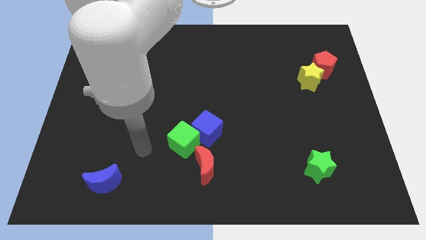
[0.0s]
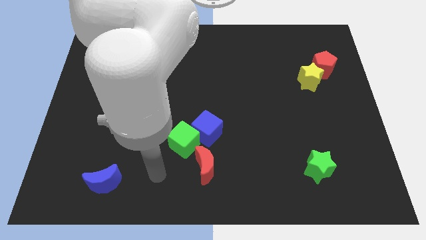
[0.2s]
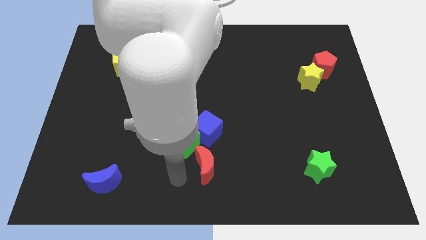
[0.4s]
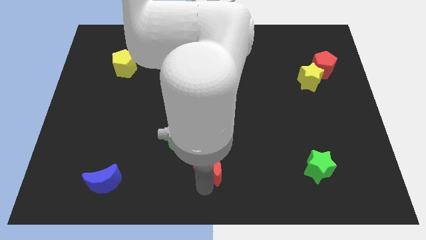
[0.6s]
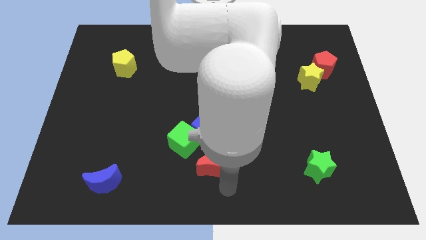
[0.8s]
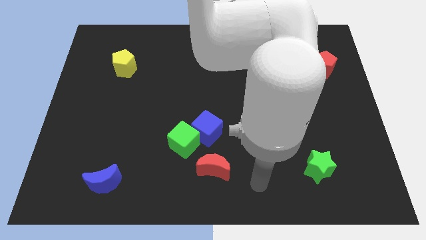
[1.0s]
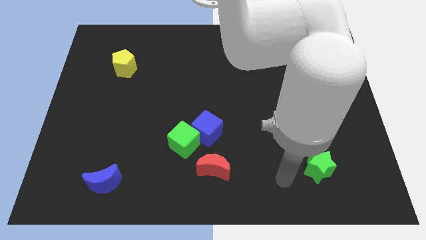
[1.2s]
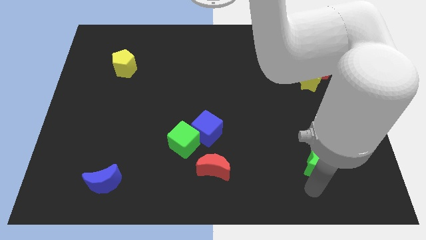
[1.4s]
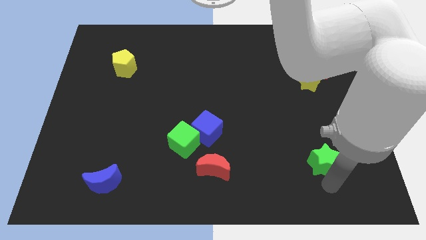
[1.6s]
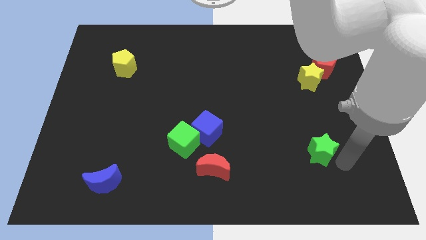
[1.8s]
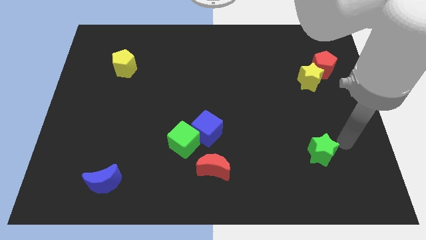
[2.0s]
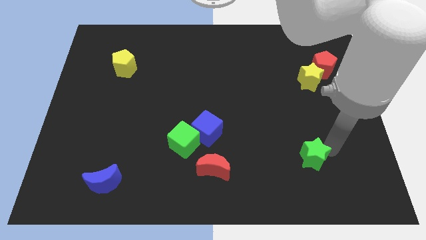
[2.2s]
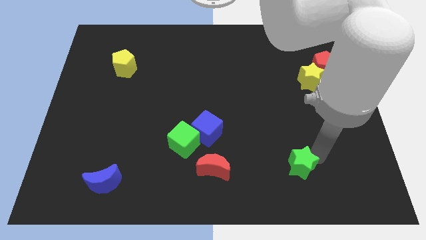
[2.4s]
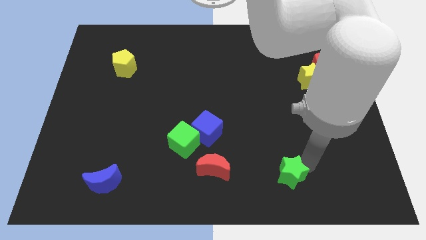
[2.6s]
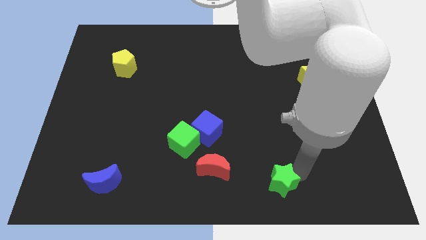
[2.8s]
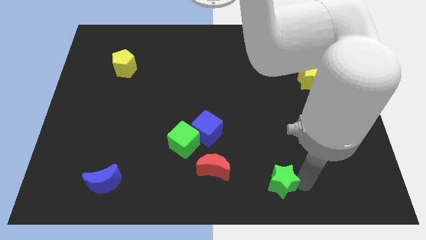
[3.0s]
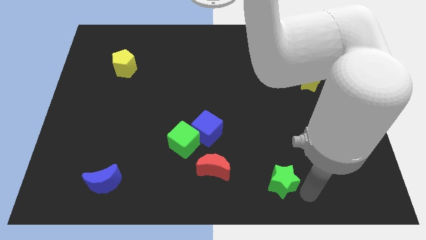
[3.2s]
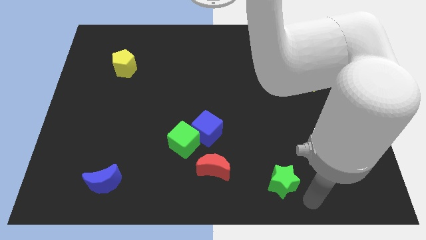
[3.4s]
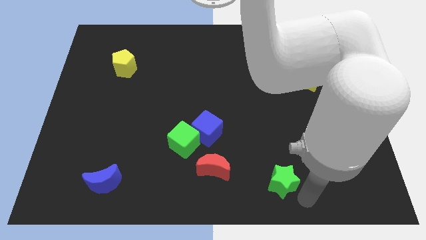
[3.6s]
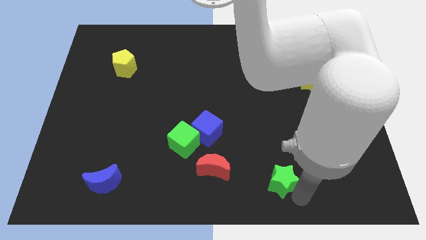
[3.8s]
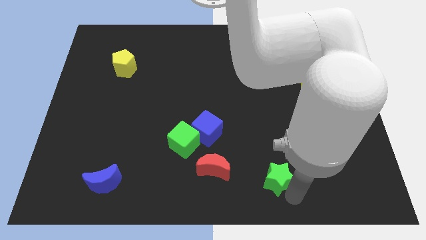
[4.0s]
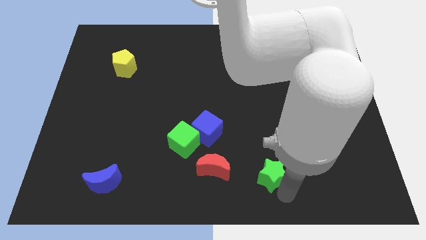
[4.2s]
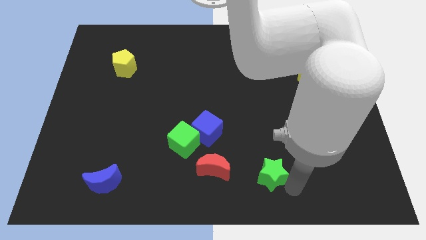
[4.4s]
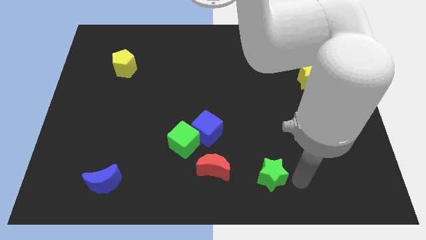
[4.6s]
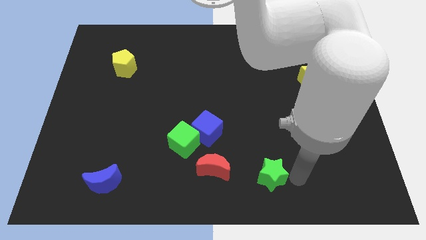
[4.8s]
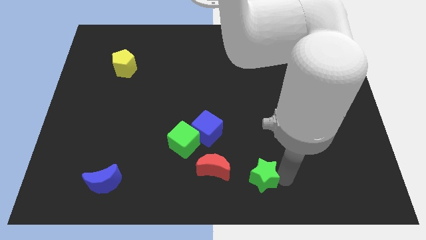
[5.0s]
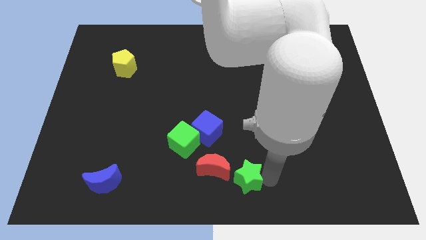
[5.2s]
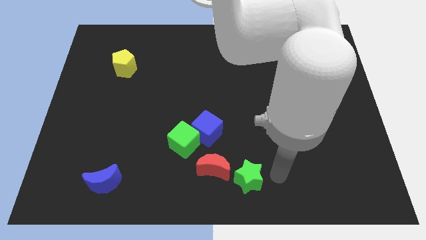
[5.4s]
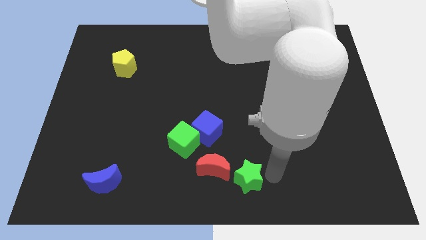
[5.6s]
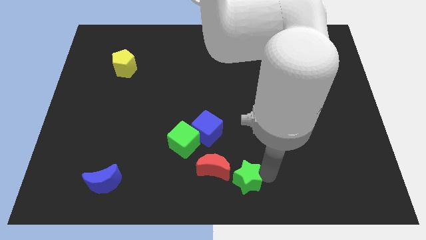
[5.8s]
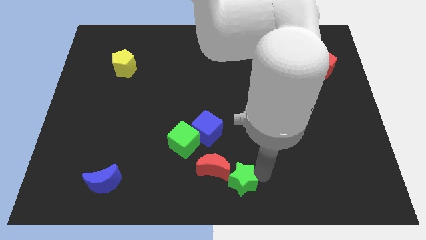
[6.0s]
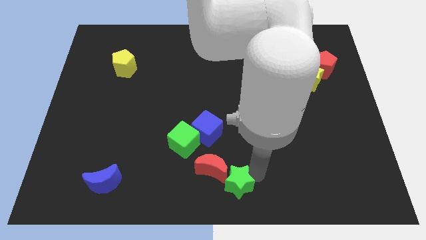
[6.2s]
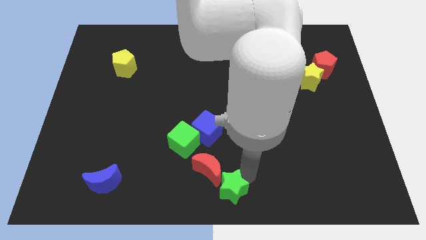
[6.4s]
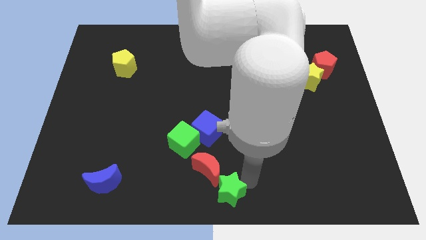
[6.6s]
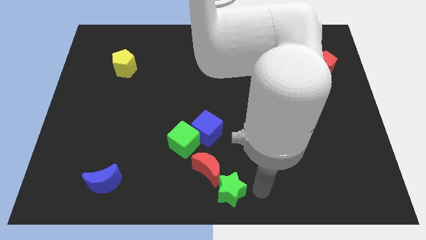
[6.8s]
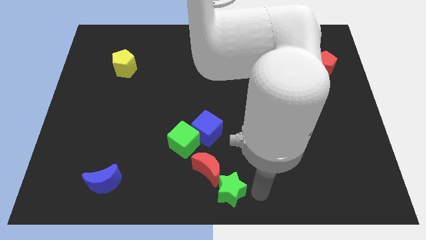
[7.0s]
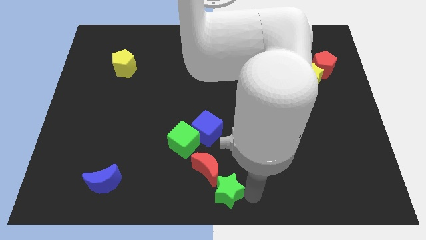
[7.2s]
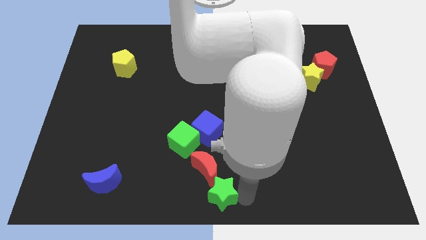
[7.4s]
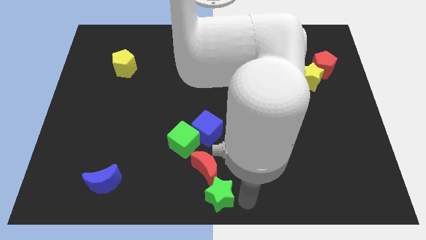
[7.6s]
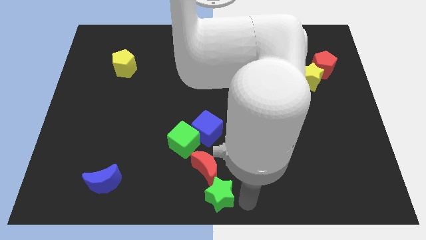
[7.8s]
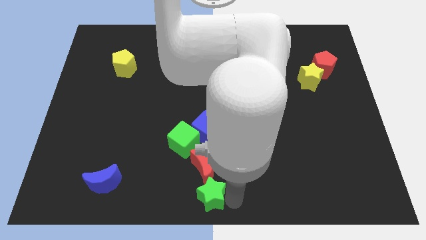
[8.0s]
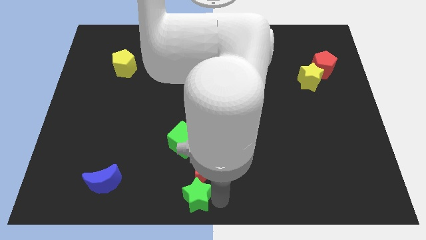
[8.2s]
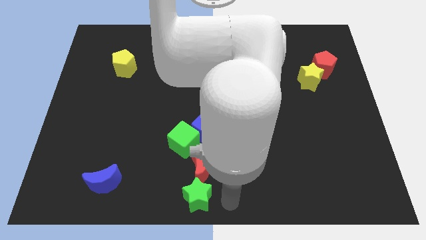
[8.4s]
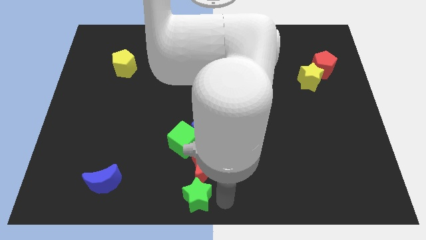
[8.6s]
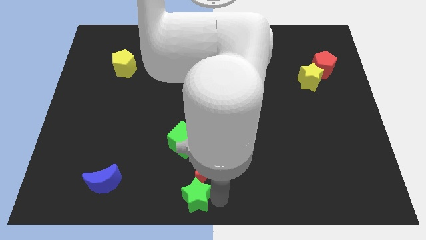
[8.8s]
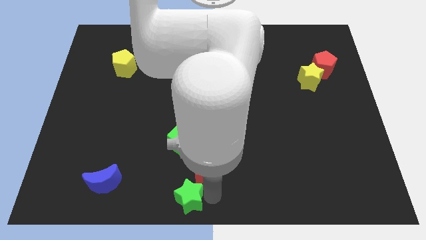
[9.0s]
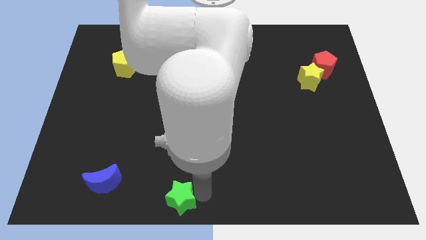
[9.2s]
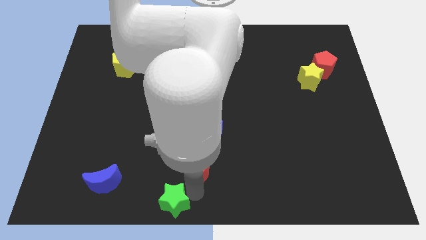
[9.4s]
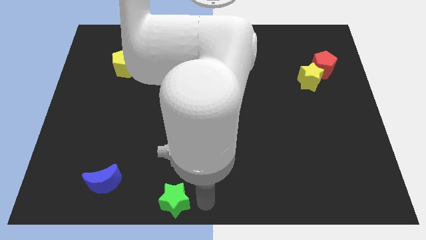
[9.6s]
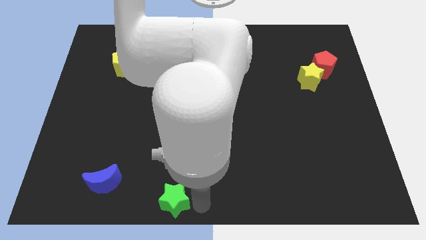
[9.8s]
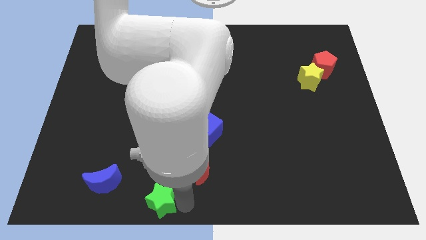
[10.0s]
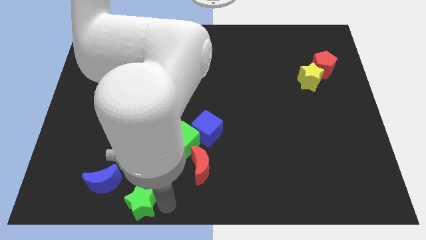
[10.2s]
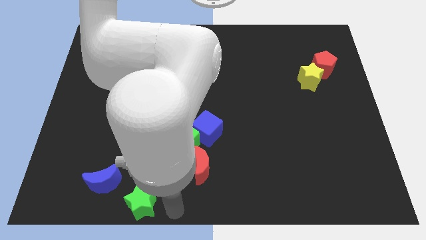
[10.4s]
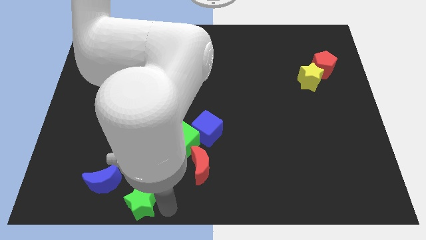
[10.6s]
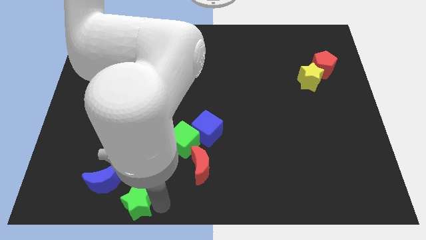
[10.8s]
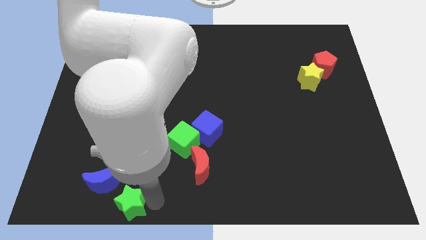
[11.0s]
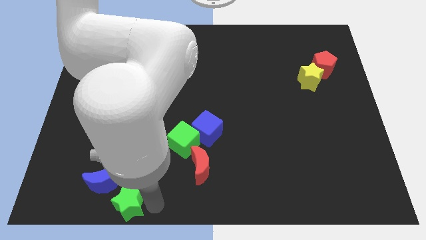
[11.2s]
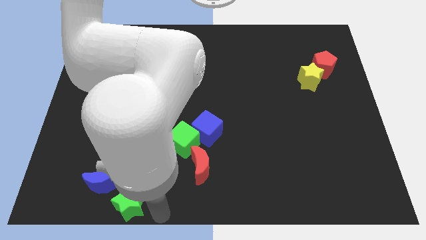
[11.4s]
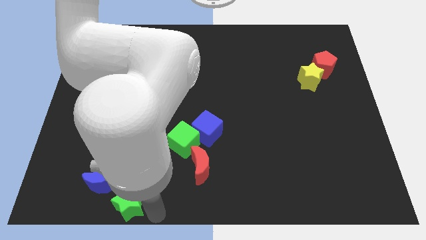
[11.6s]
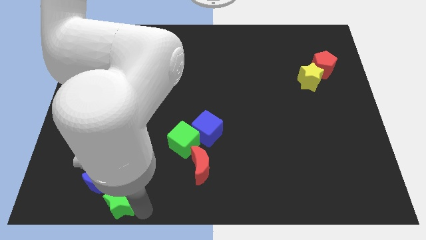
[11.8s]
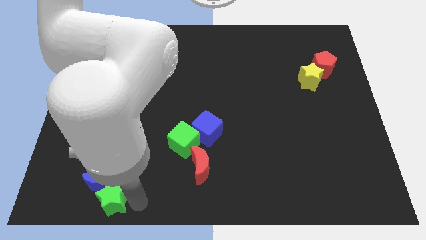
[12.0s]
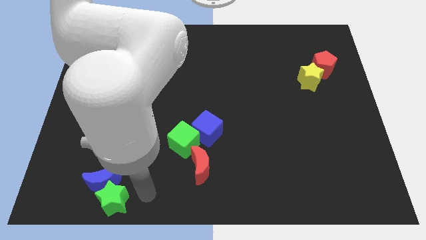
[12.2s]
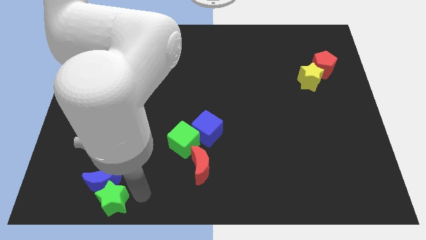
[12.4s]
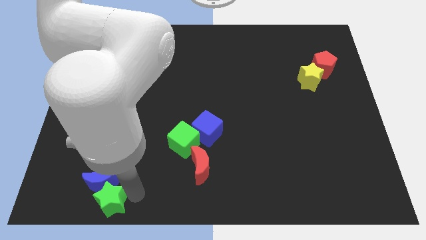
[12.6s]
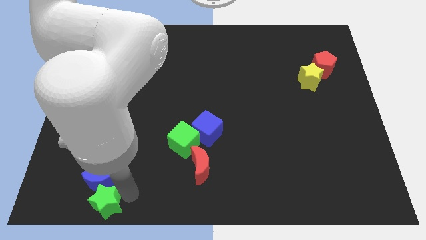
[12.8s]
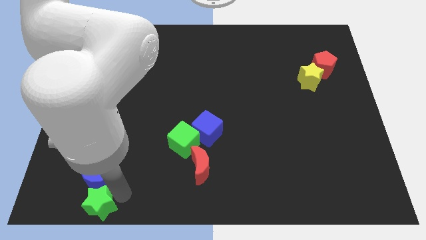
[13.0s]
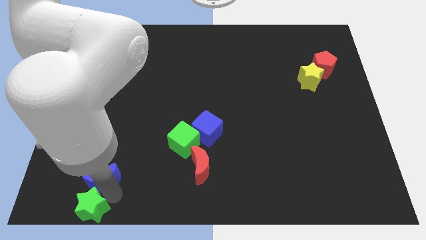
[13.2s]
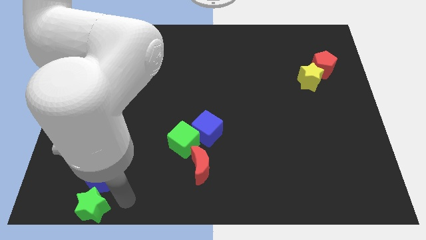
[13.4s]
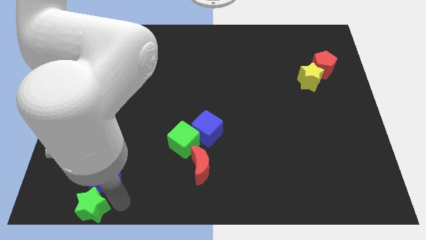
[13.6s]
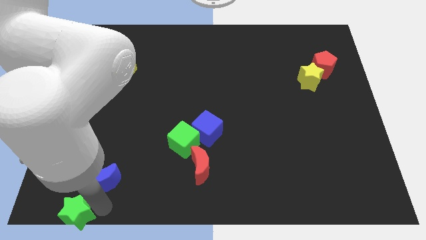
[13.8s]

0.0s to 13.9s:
slide the green star to the bottom left corner

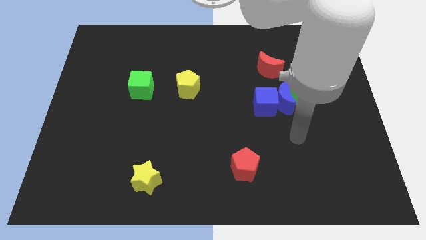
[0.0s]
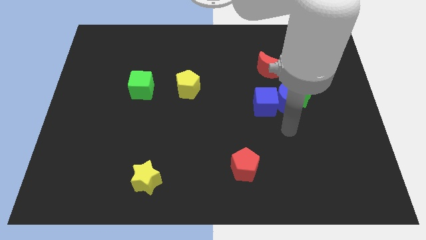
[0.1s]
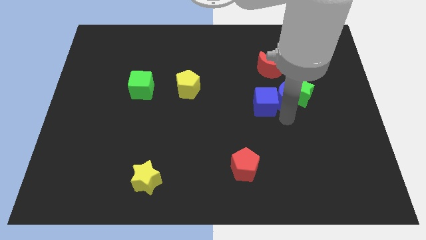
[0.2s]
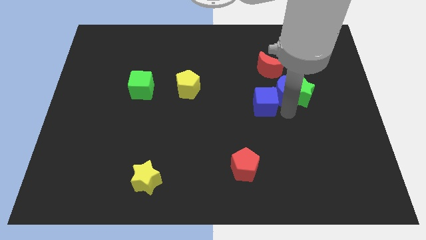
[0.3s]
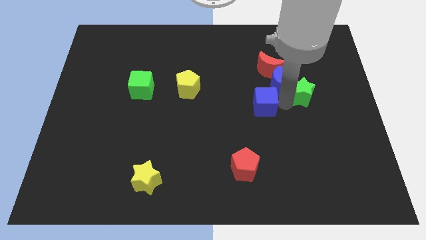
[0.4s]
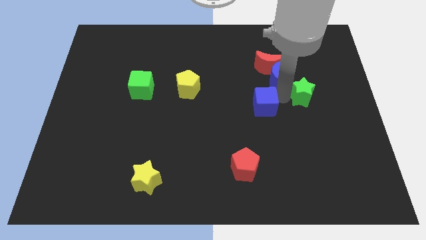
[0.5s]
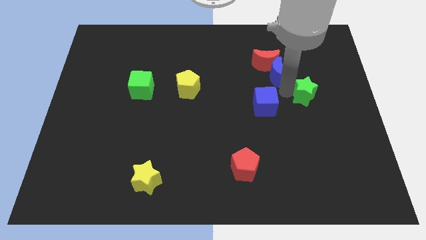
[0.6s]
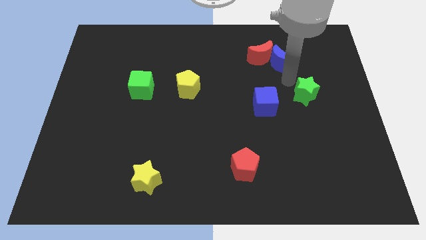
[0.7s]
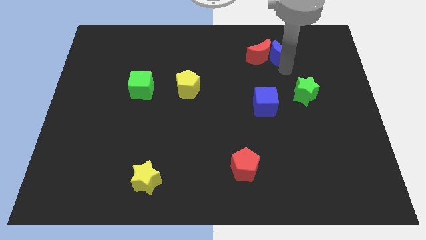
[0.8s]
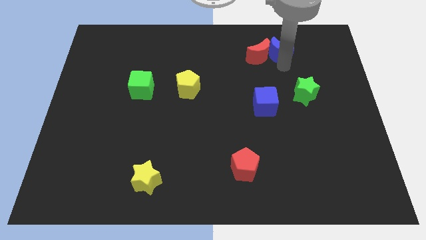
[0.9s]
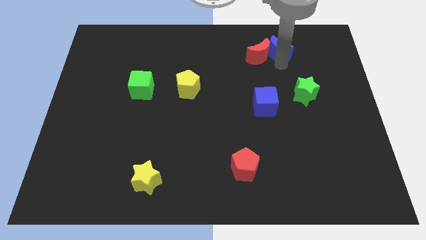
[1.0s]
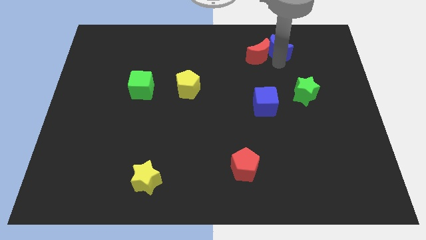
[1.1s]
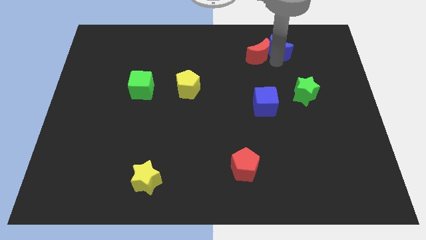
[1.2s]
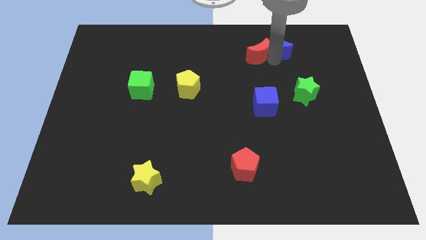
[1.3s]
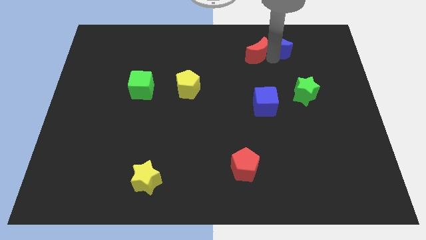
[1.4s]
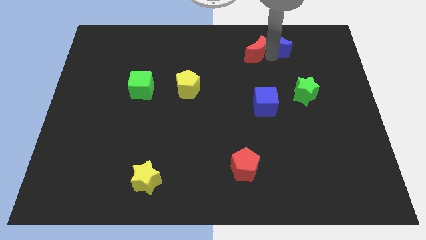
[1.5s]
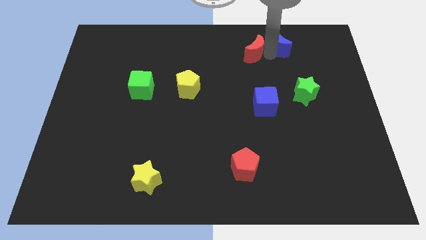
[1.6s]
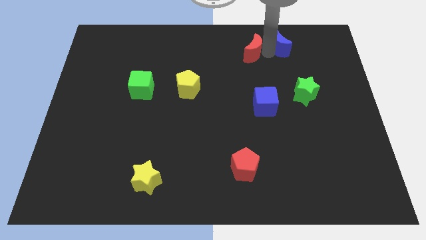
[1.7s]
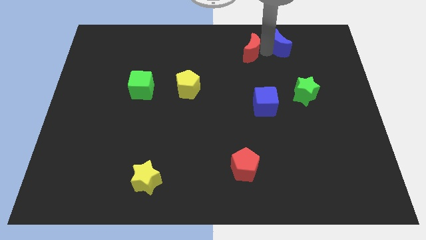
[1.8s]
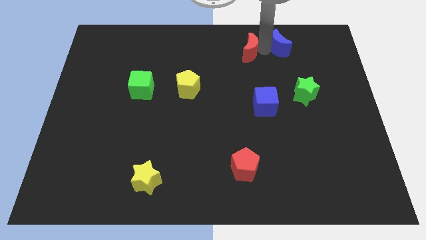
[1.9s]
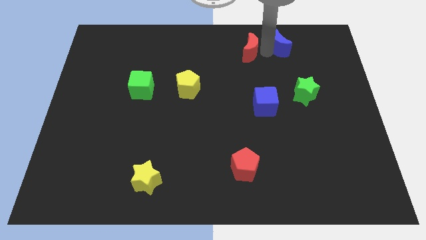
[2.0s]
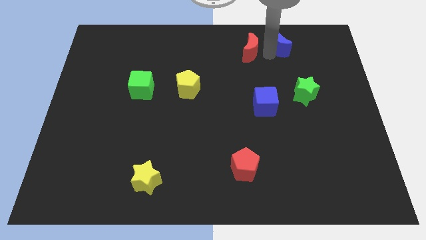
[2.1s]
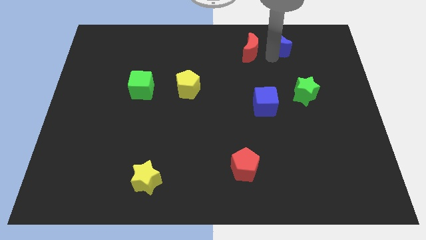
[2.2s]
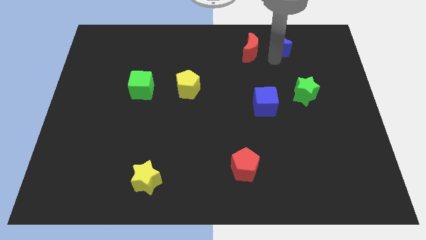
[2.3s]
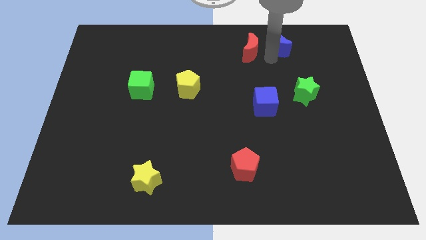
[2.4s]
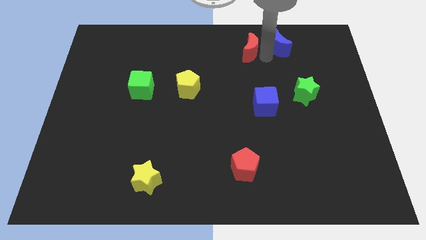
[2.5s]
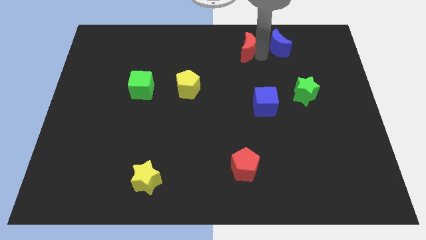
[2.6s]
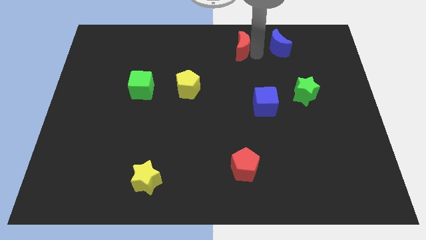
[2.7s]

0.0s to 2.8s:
slide the red moon to the towards your base
